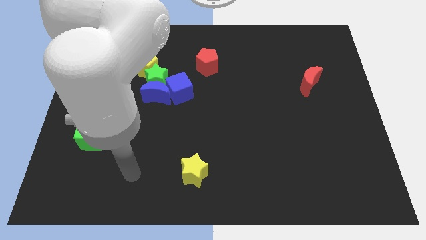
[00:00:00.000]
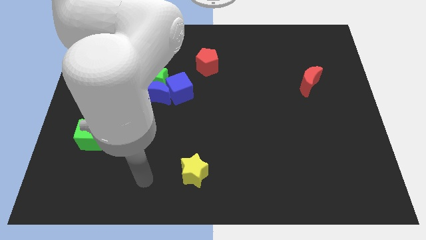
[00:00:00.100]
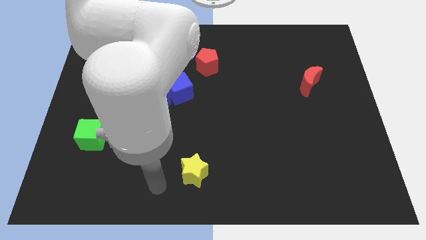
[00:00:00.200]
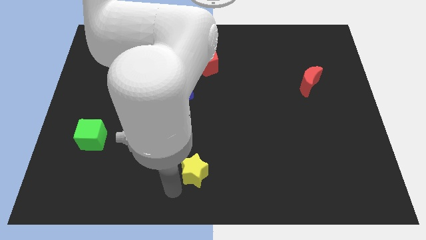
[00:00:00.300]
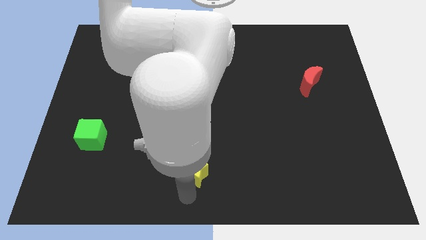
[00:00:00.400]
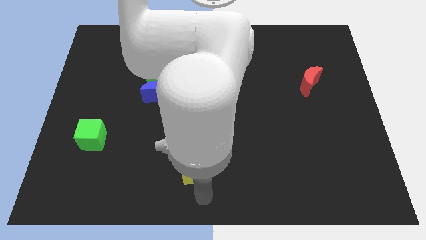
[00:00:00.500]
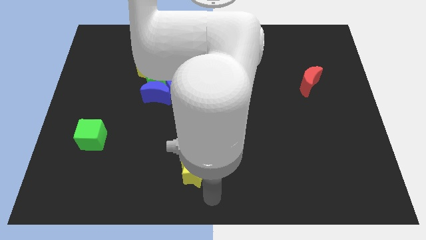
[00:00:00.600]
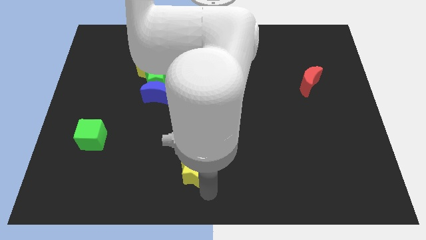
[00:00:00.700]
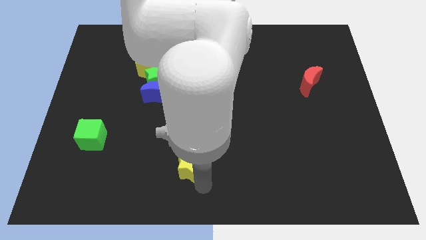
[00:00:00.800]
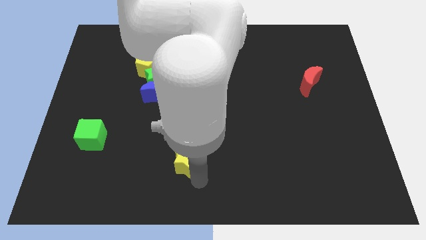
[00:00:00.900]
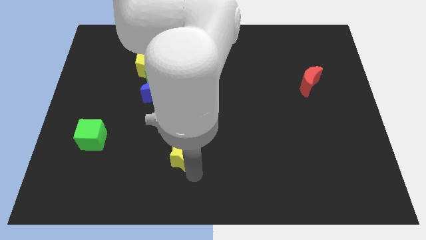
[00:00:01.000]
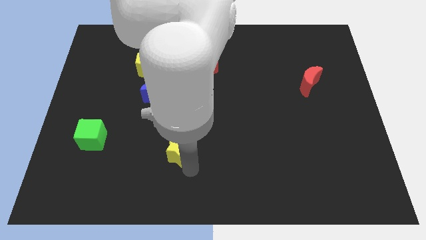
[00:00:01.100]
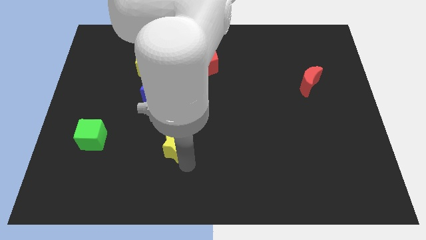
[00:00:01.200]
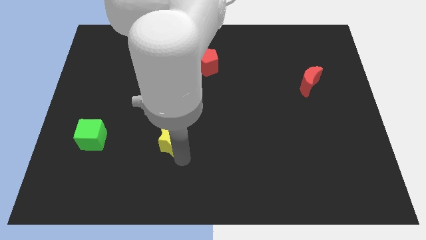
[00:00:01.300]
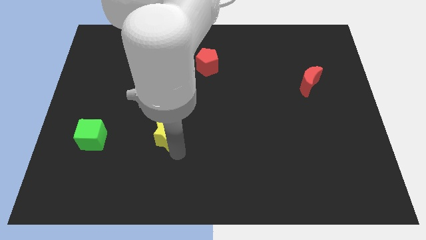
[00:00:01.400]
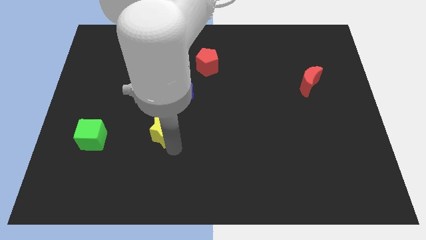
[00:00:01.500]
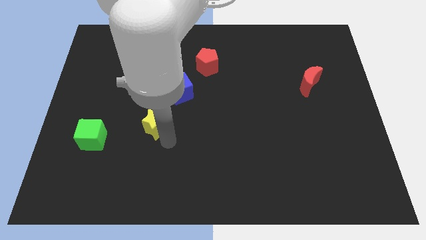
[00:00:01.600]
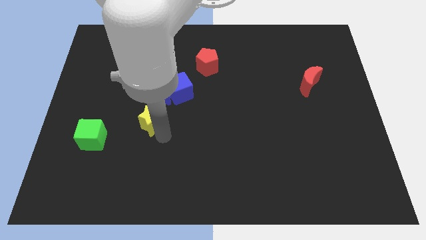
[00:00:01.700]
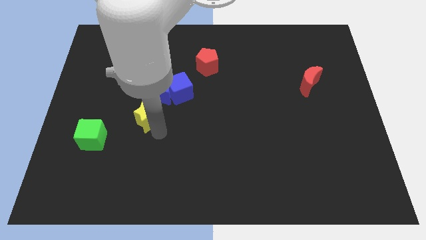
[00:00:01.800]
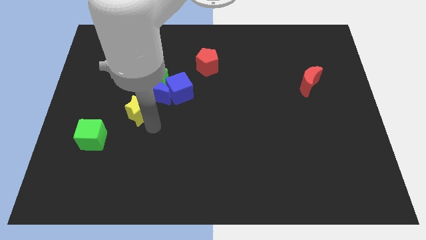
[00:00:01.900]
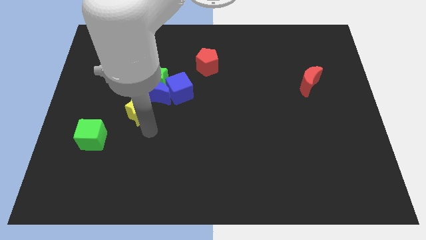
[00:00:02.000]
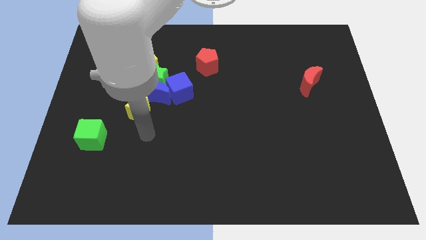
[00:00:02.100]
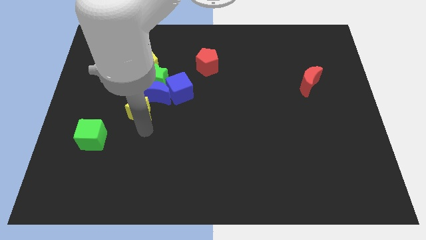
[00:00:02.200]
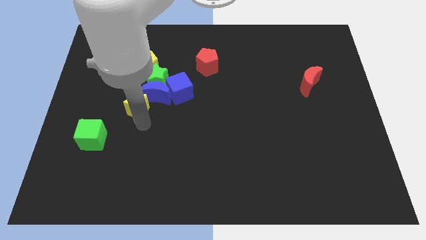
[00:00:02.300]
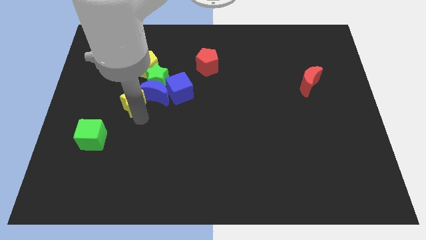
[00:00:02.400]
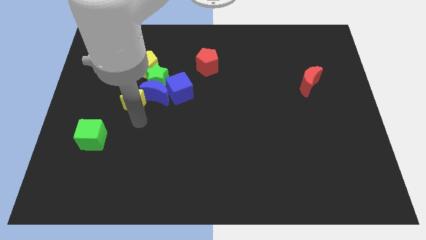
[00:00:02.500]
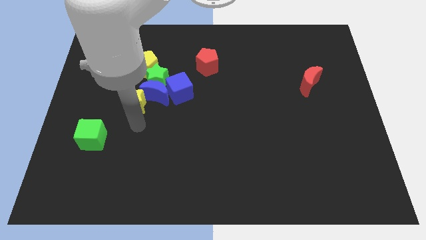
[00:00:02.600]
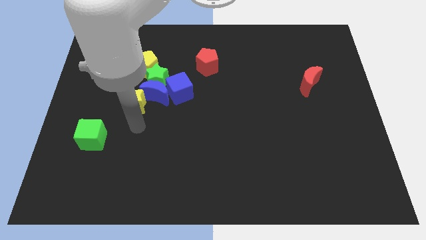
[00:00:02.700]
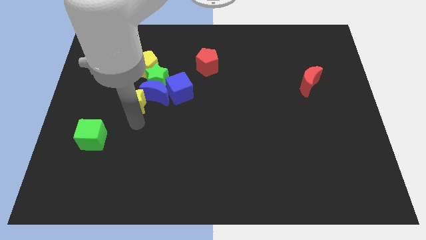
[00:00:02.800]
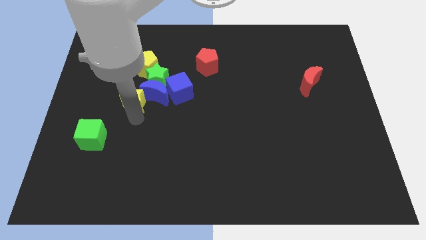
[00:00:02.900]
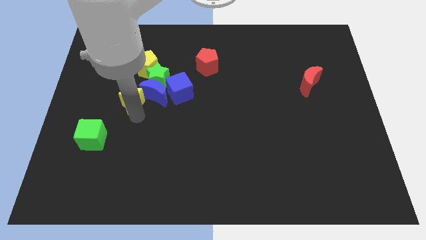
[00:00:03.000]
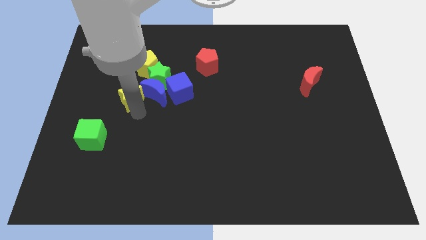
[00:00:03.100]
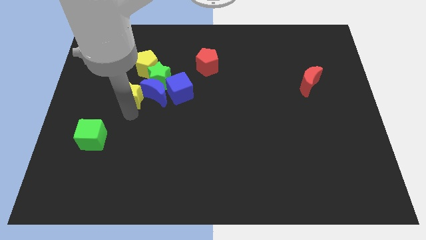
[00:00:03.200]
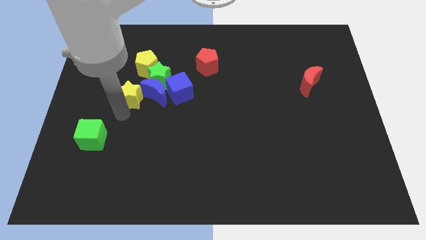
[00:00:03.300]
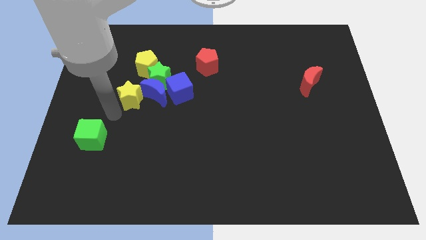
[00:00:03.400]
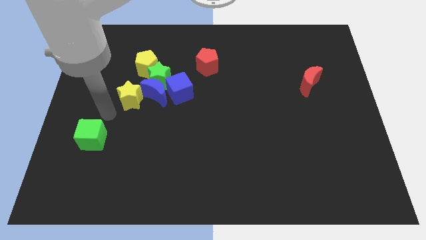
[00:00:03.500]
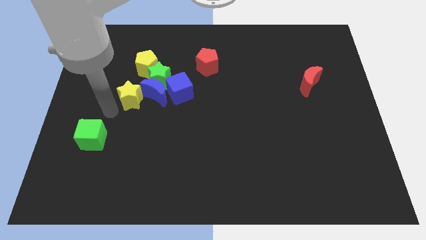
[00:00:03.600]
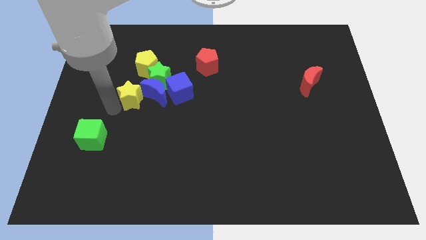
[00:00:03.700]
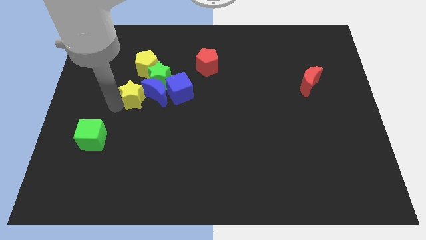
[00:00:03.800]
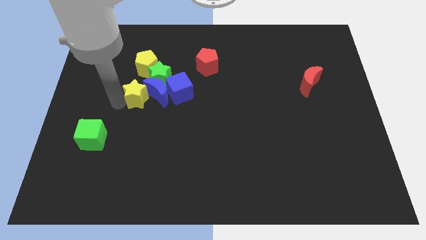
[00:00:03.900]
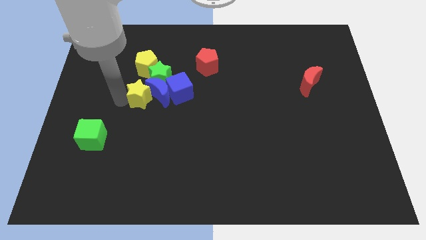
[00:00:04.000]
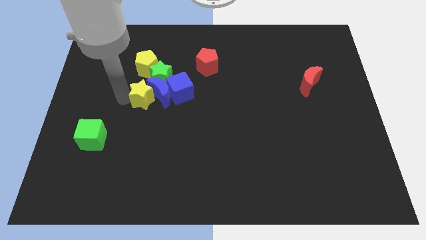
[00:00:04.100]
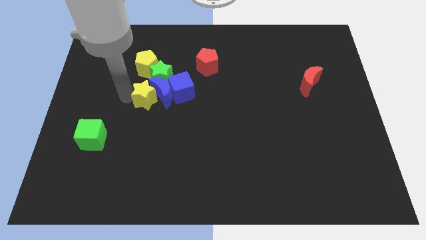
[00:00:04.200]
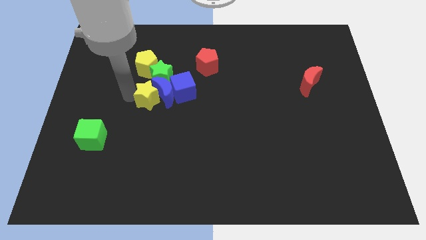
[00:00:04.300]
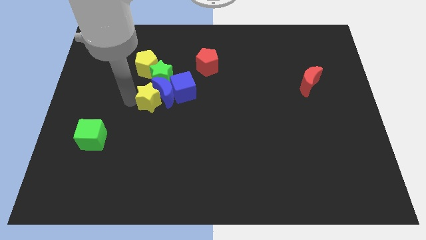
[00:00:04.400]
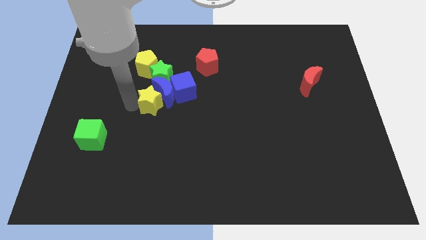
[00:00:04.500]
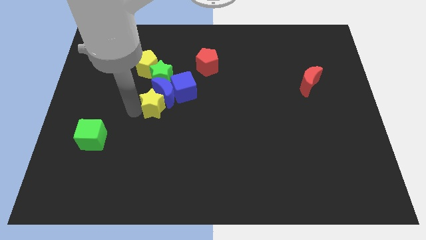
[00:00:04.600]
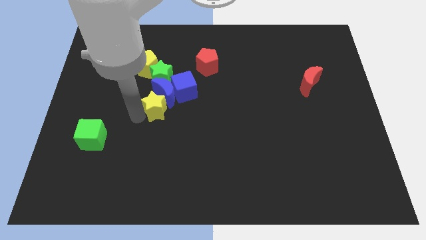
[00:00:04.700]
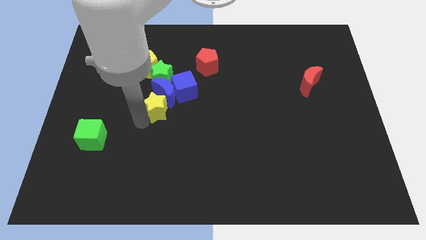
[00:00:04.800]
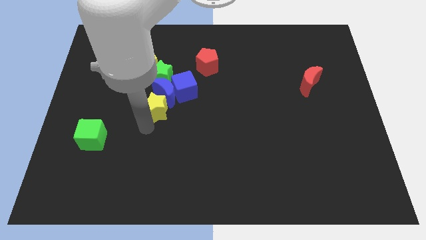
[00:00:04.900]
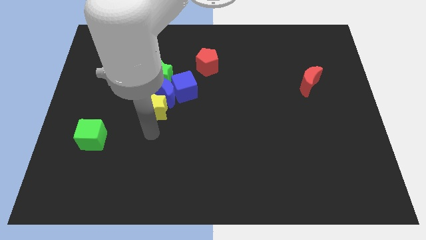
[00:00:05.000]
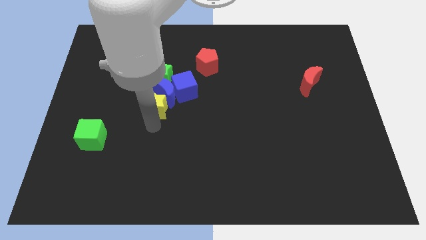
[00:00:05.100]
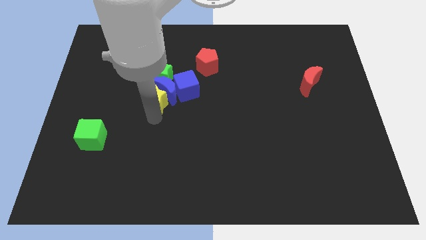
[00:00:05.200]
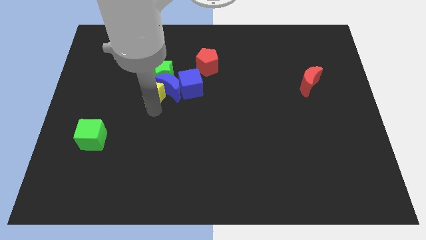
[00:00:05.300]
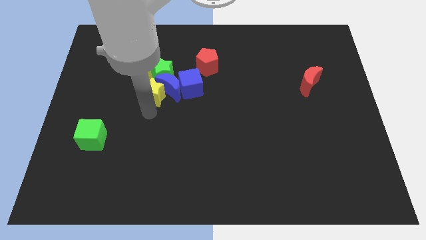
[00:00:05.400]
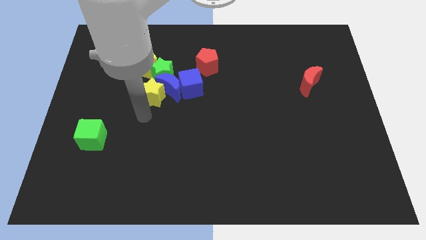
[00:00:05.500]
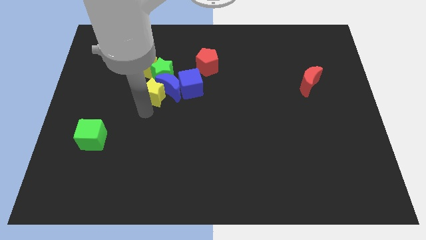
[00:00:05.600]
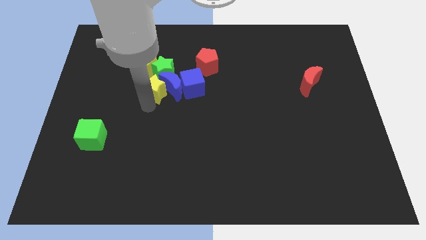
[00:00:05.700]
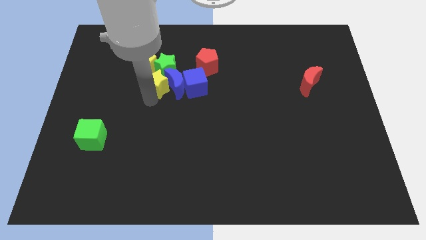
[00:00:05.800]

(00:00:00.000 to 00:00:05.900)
push the yellow star to the green star

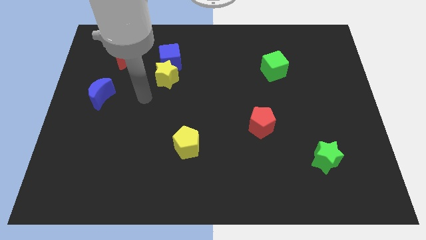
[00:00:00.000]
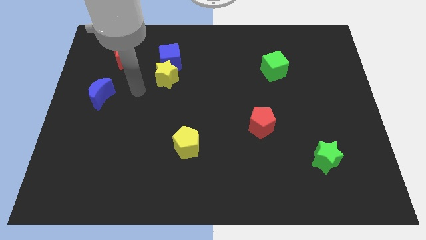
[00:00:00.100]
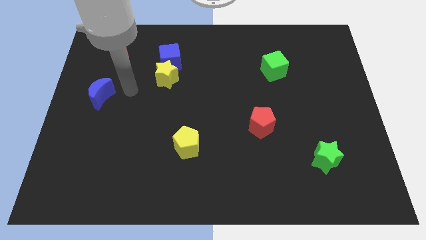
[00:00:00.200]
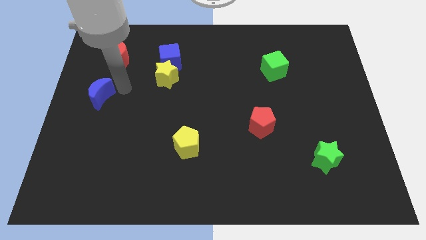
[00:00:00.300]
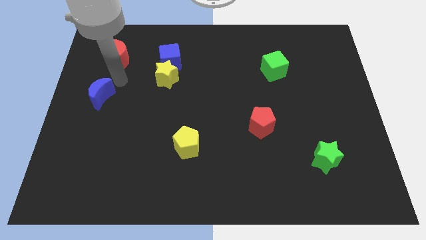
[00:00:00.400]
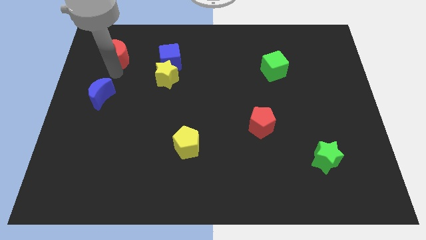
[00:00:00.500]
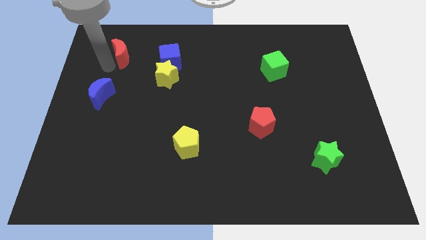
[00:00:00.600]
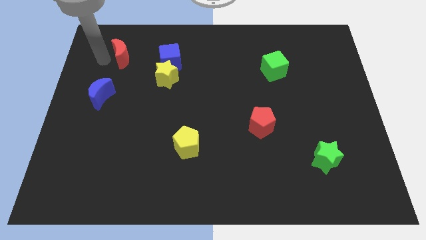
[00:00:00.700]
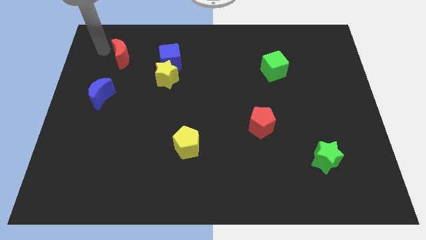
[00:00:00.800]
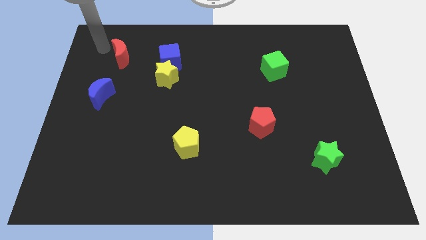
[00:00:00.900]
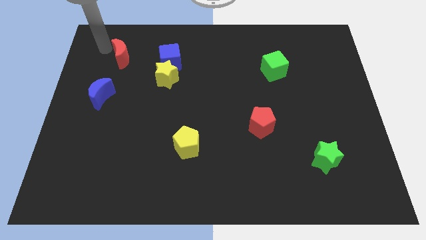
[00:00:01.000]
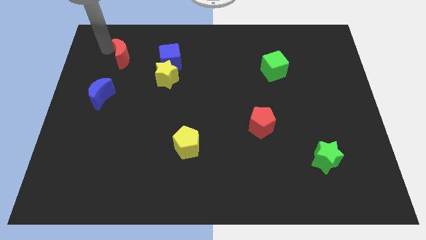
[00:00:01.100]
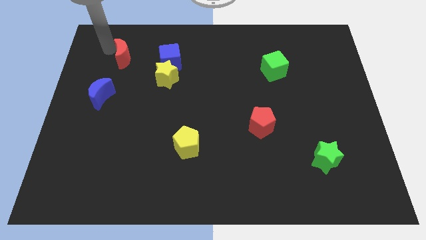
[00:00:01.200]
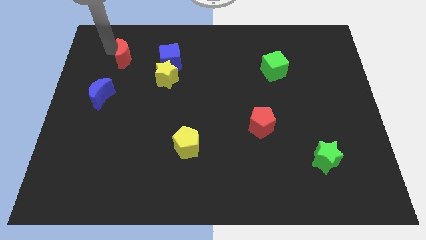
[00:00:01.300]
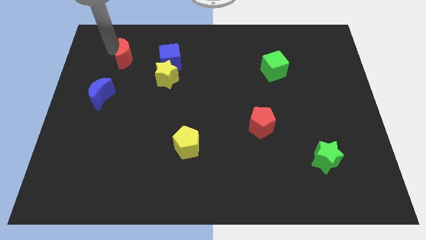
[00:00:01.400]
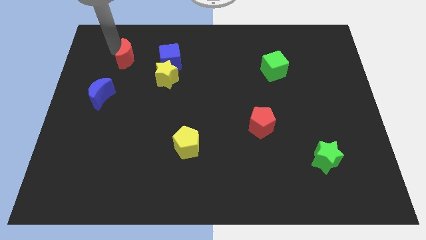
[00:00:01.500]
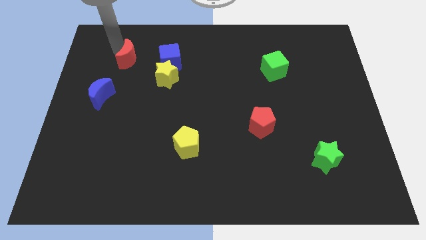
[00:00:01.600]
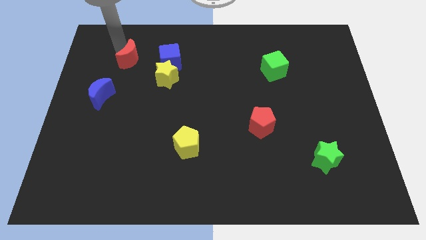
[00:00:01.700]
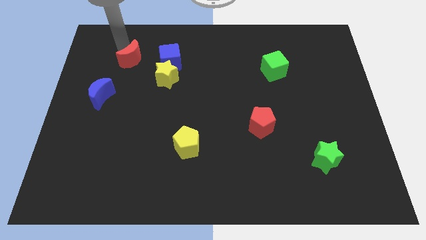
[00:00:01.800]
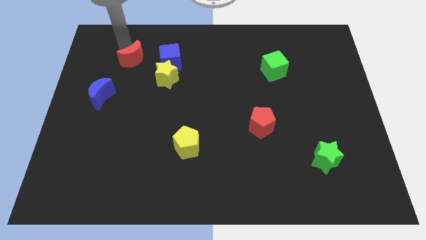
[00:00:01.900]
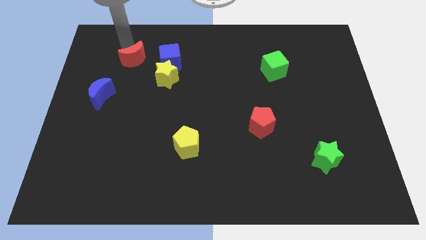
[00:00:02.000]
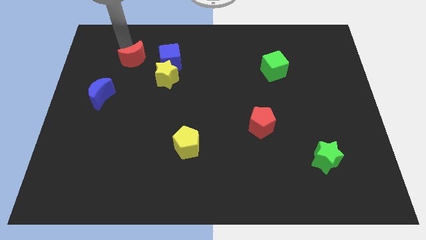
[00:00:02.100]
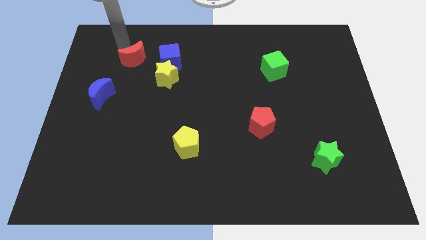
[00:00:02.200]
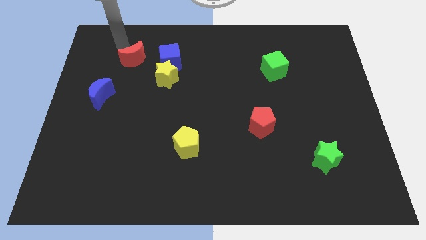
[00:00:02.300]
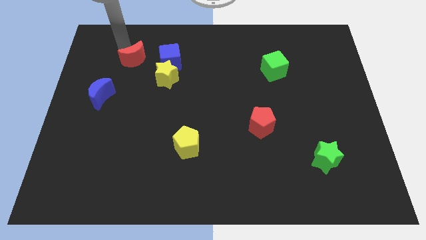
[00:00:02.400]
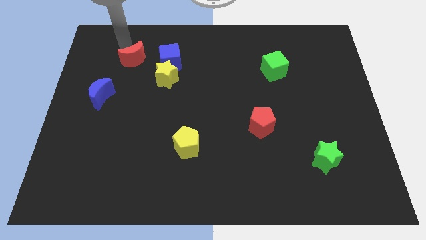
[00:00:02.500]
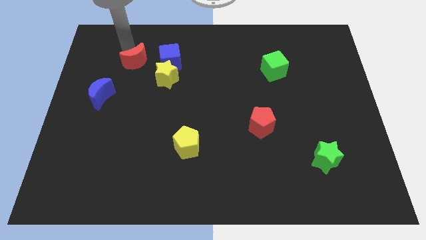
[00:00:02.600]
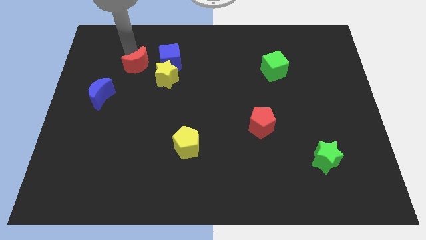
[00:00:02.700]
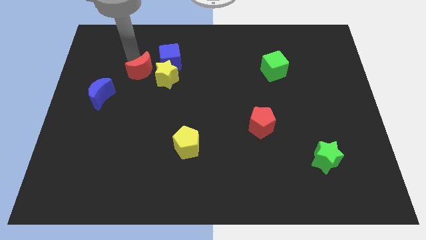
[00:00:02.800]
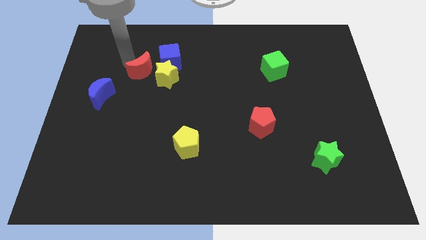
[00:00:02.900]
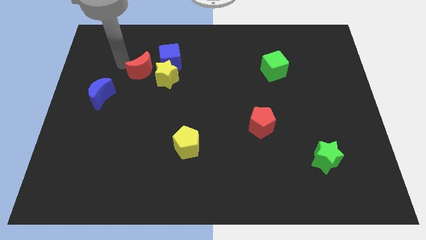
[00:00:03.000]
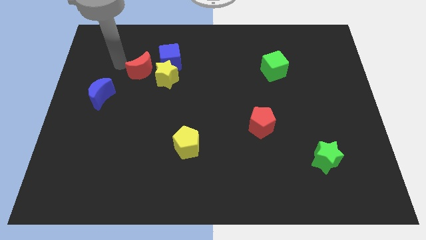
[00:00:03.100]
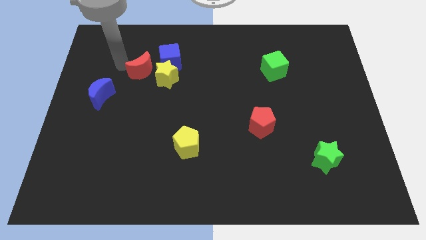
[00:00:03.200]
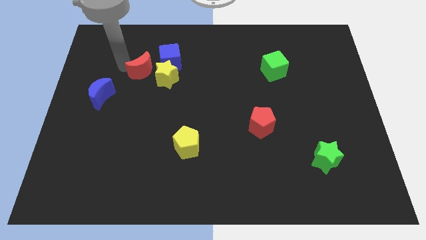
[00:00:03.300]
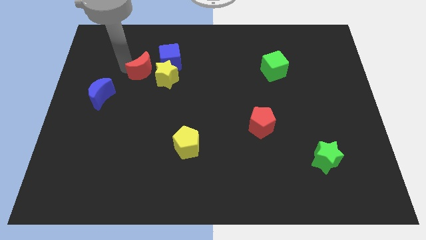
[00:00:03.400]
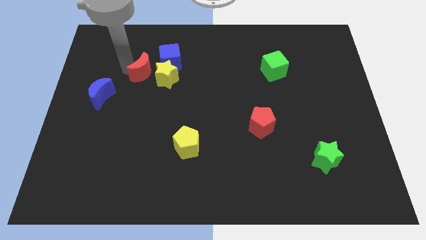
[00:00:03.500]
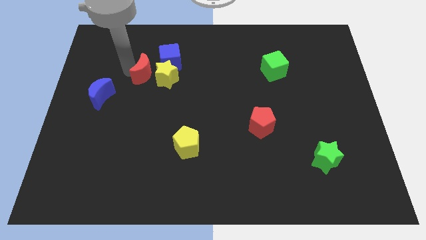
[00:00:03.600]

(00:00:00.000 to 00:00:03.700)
push the red moon to the yellow star
